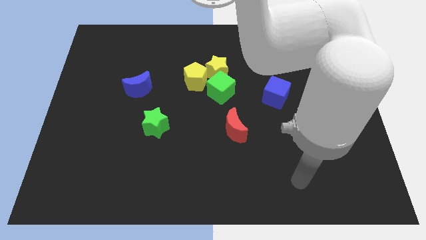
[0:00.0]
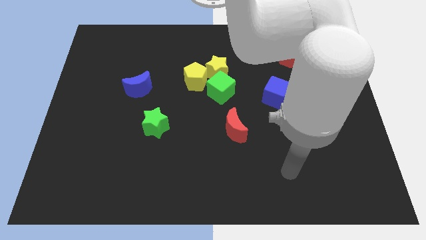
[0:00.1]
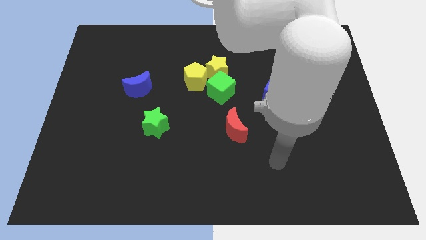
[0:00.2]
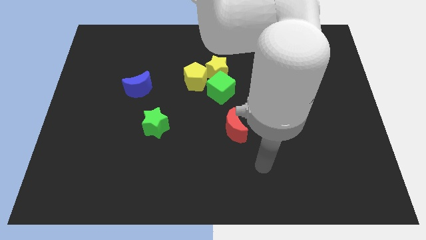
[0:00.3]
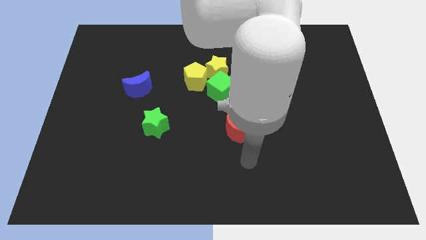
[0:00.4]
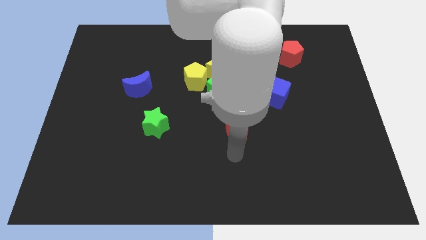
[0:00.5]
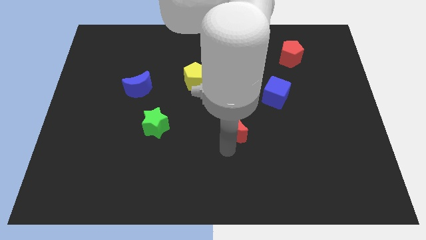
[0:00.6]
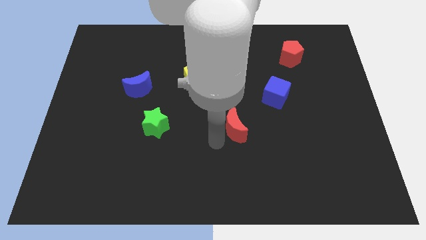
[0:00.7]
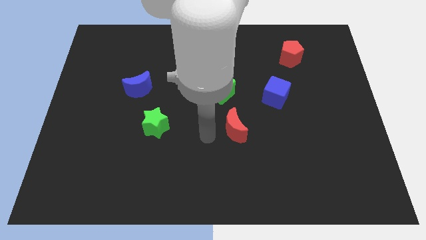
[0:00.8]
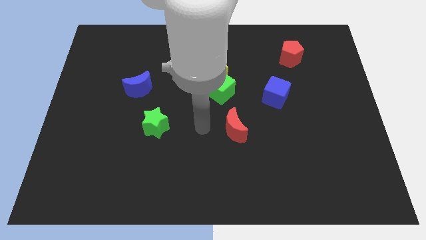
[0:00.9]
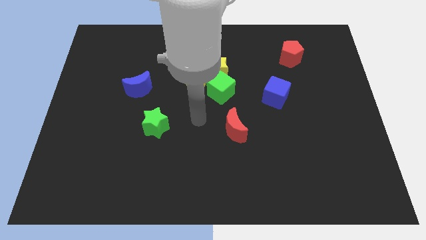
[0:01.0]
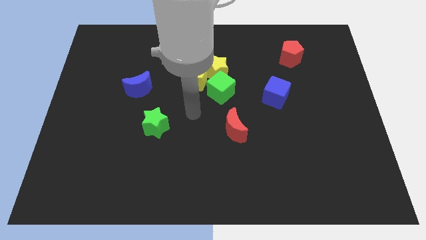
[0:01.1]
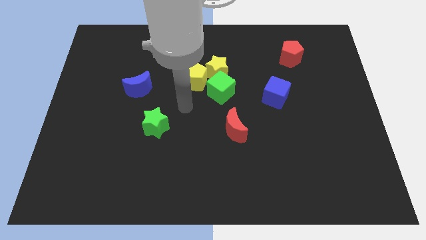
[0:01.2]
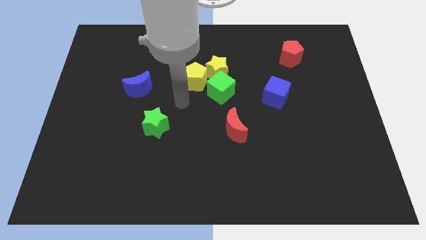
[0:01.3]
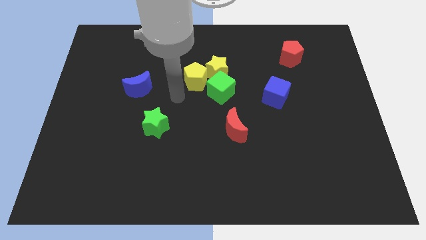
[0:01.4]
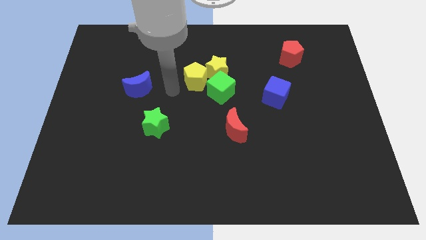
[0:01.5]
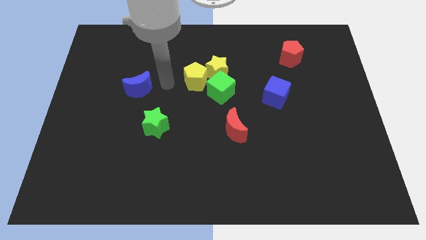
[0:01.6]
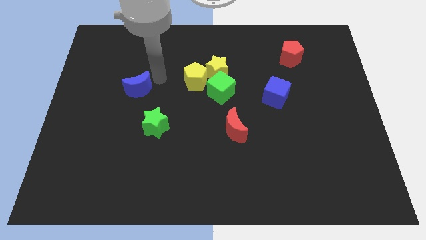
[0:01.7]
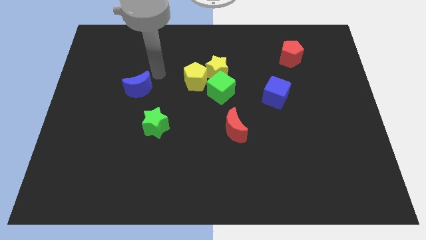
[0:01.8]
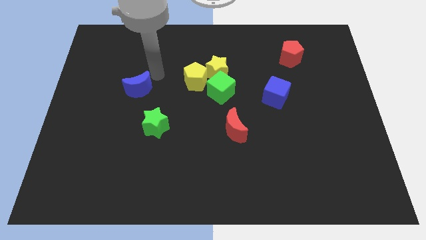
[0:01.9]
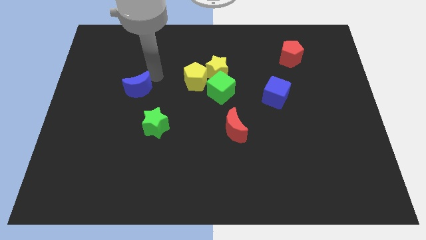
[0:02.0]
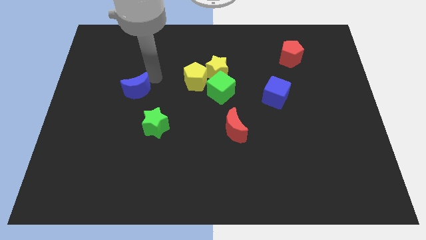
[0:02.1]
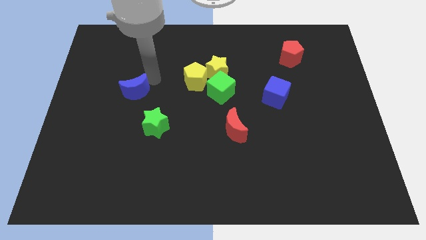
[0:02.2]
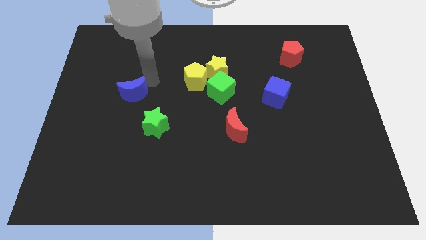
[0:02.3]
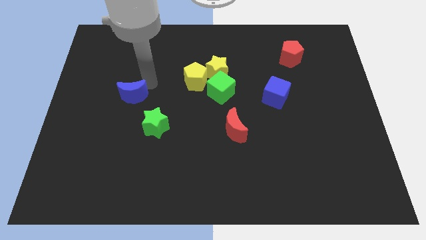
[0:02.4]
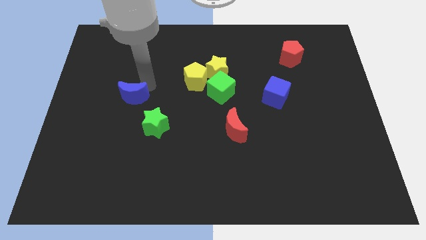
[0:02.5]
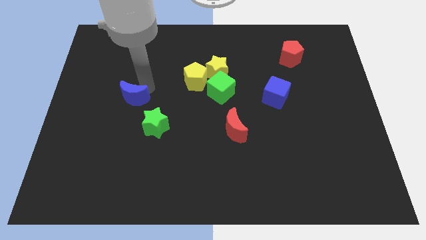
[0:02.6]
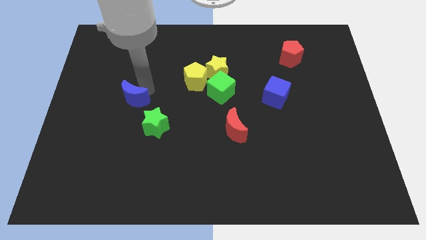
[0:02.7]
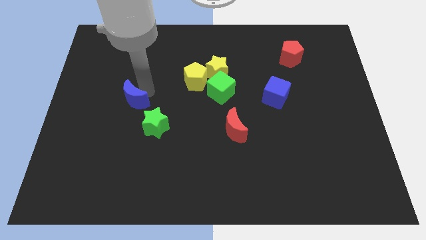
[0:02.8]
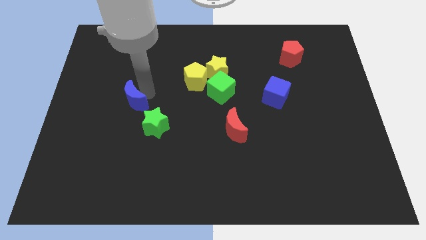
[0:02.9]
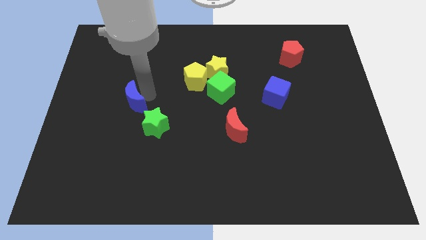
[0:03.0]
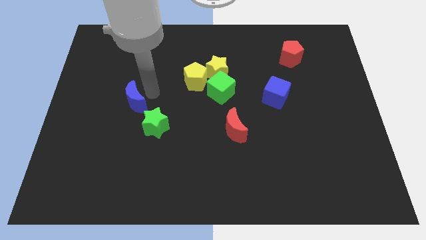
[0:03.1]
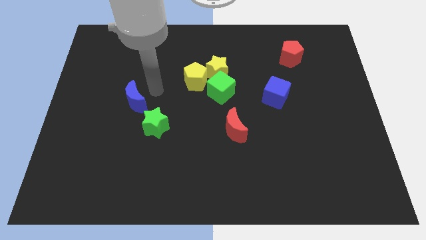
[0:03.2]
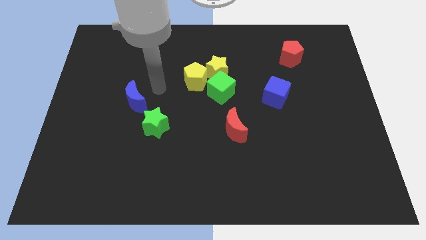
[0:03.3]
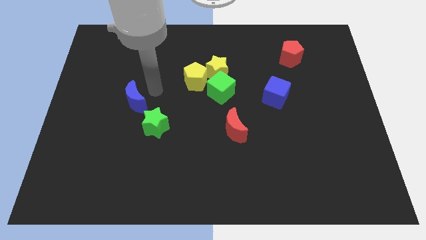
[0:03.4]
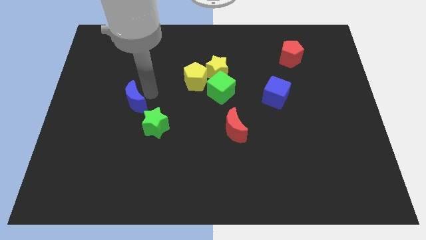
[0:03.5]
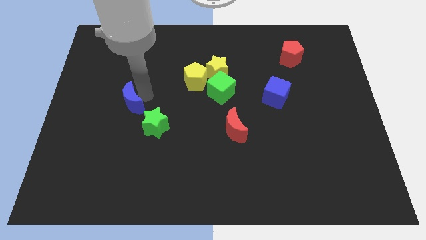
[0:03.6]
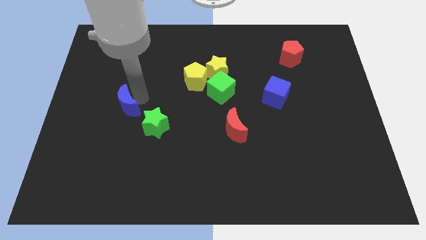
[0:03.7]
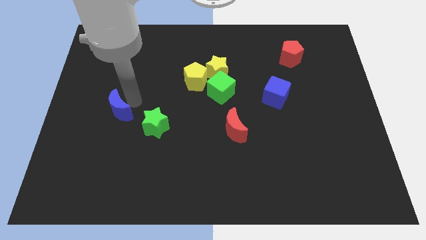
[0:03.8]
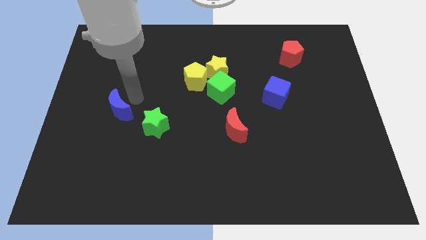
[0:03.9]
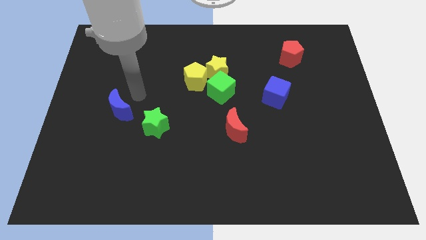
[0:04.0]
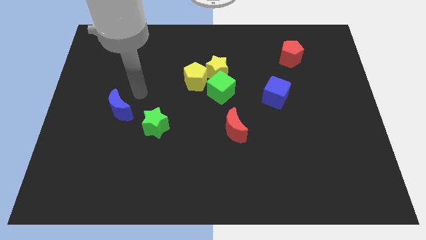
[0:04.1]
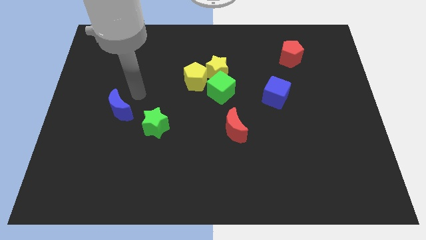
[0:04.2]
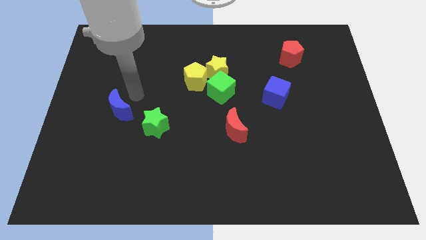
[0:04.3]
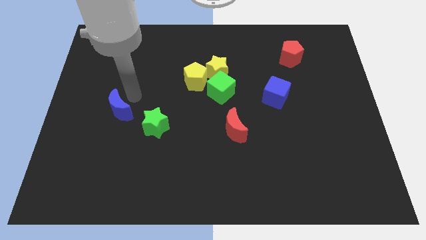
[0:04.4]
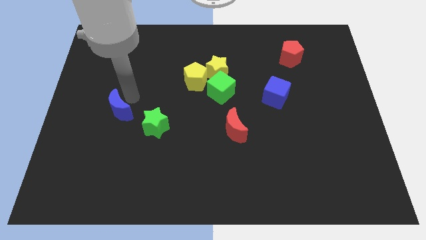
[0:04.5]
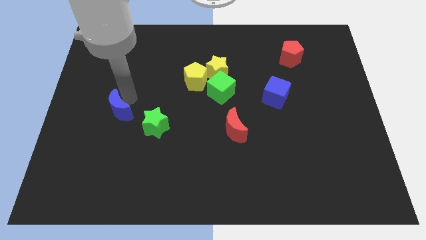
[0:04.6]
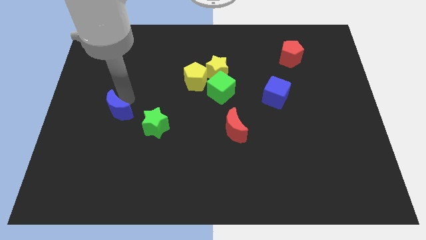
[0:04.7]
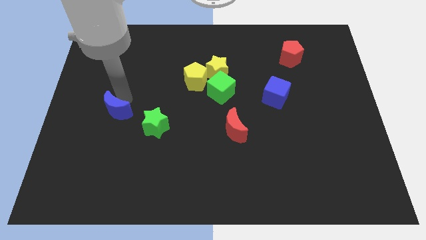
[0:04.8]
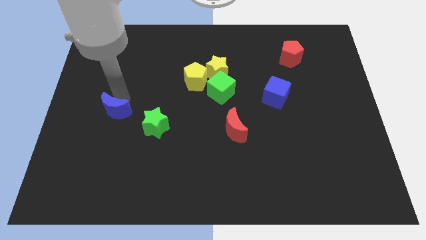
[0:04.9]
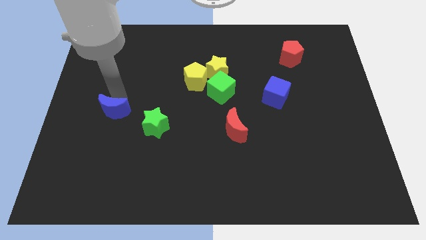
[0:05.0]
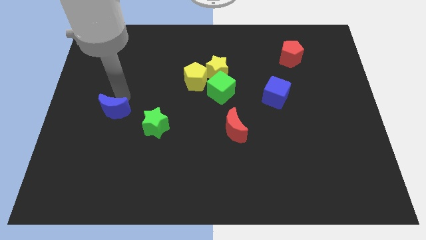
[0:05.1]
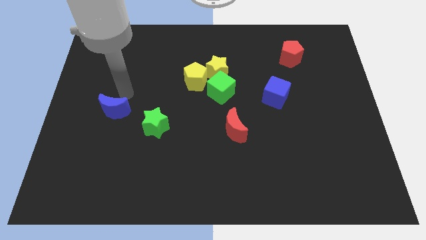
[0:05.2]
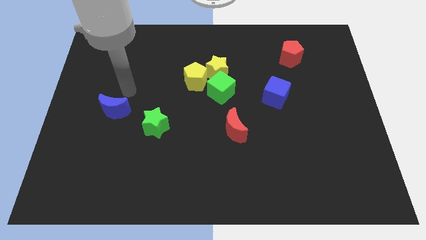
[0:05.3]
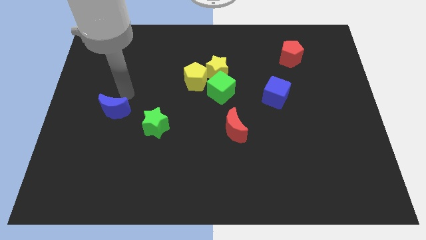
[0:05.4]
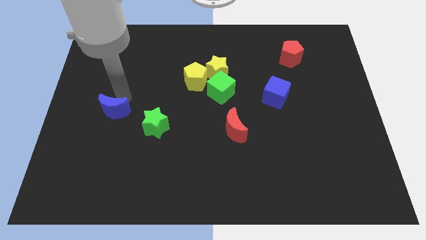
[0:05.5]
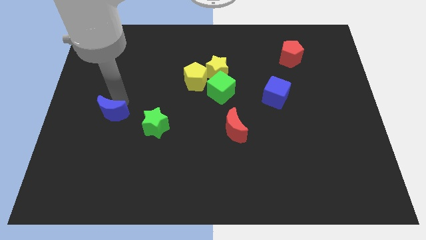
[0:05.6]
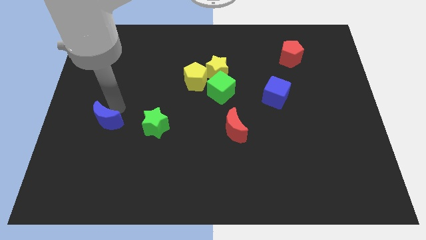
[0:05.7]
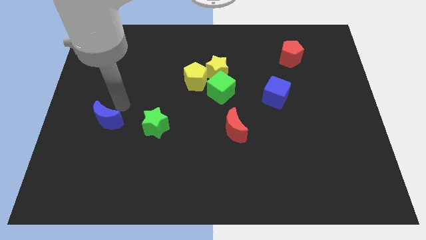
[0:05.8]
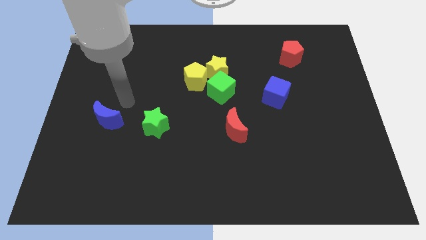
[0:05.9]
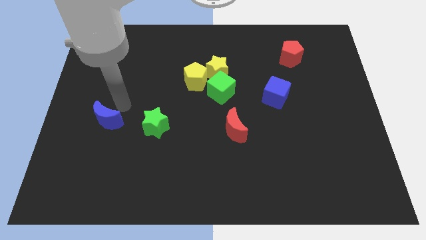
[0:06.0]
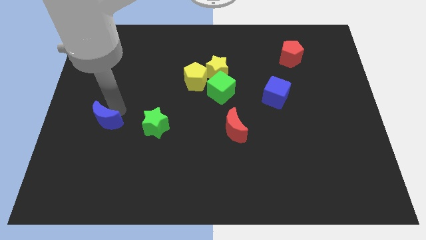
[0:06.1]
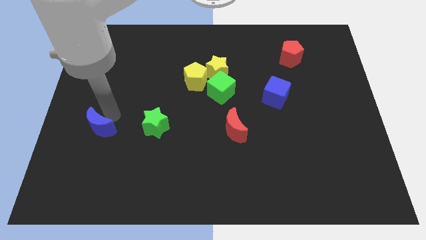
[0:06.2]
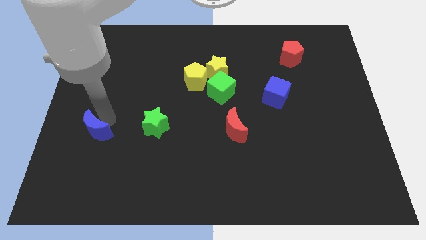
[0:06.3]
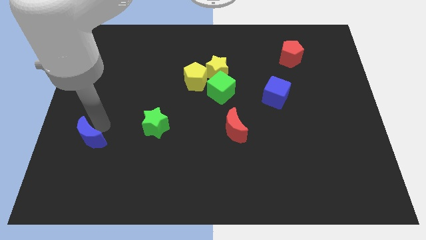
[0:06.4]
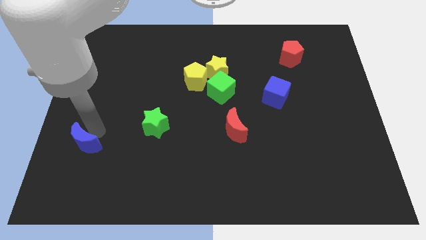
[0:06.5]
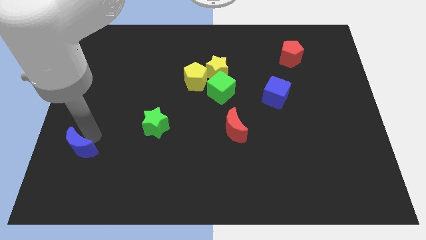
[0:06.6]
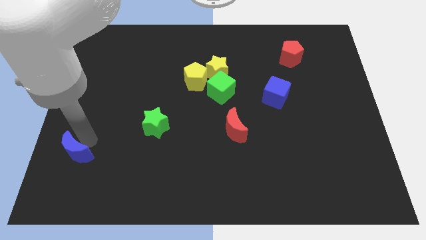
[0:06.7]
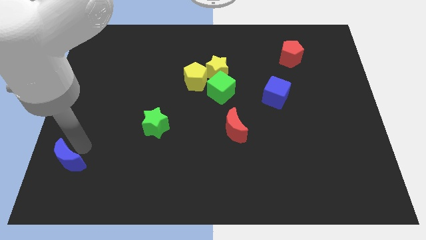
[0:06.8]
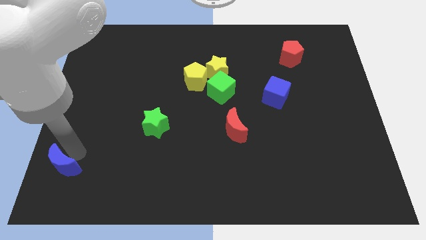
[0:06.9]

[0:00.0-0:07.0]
push the blue moon to the bottom left of the board
